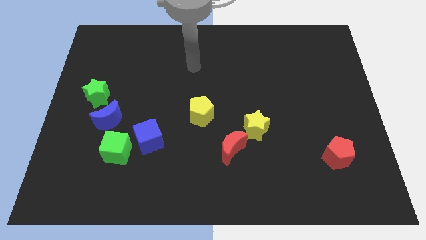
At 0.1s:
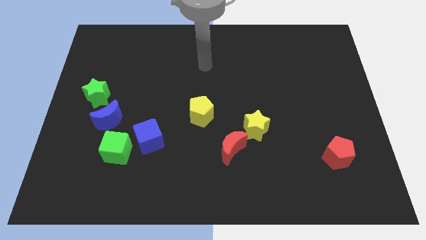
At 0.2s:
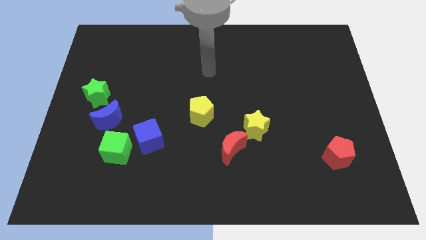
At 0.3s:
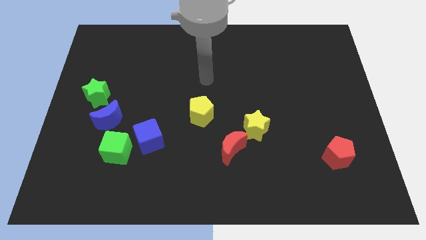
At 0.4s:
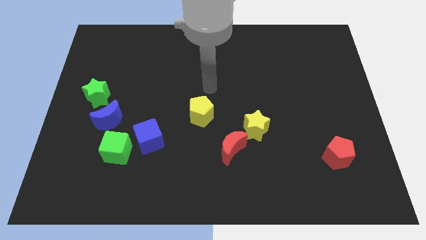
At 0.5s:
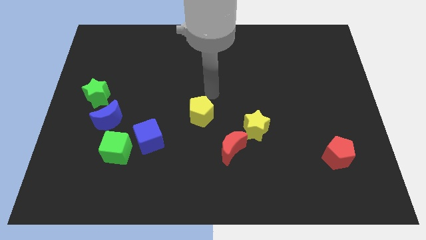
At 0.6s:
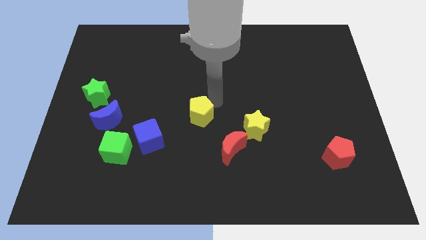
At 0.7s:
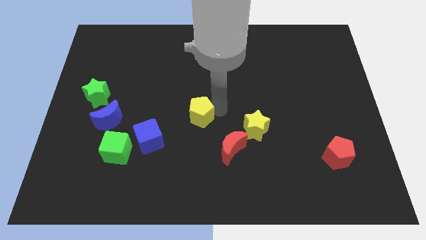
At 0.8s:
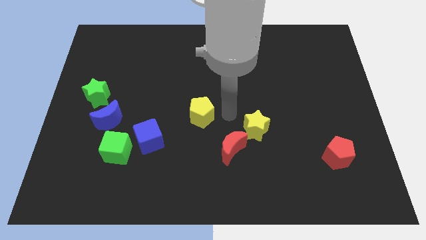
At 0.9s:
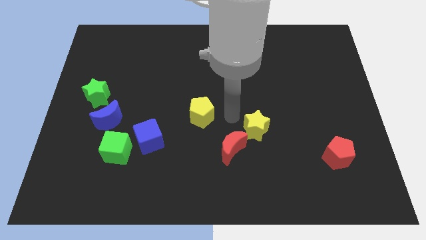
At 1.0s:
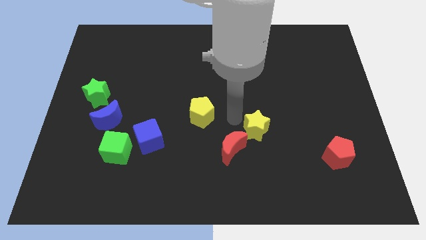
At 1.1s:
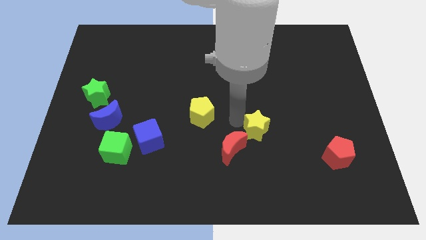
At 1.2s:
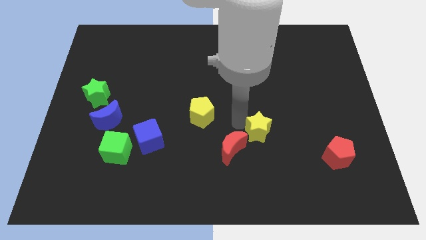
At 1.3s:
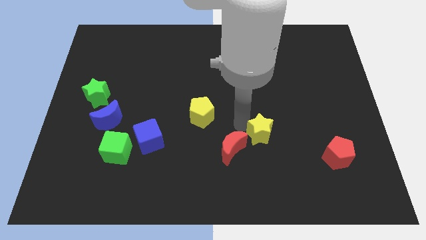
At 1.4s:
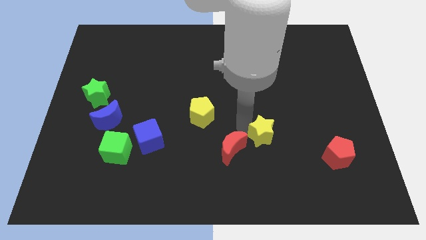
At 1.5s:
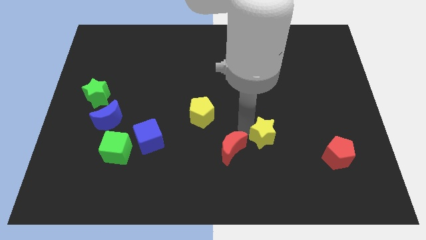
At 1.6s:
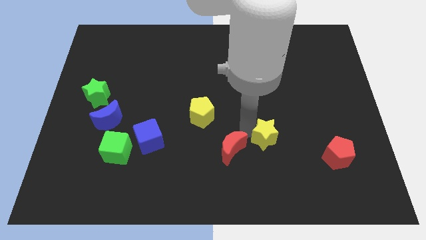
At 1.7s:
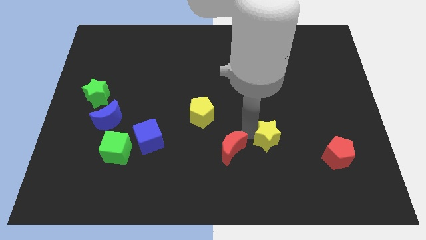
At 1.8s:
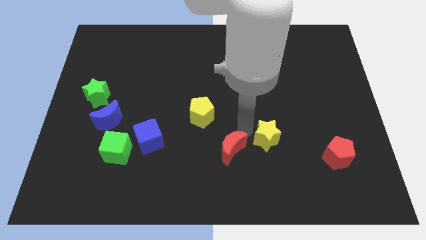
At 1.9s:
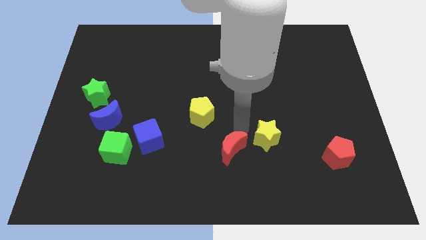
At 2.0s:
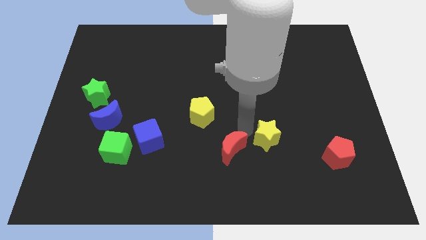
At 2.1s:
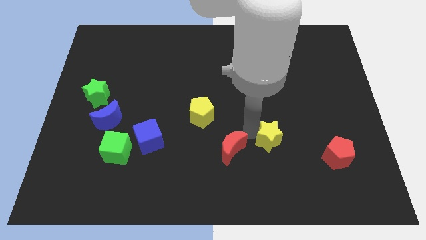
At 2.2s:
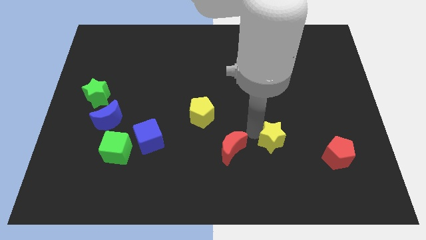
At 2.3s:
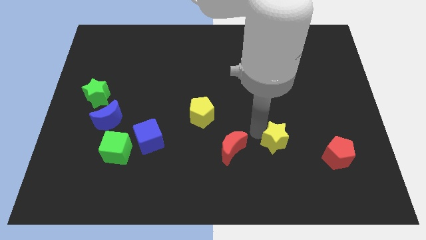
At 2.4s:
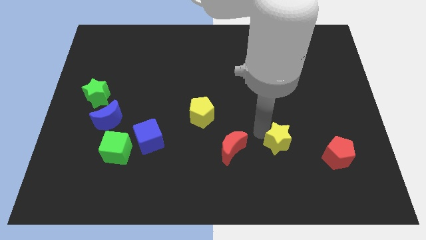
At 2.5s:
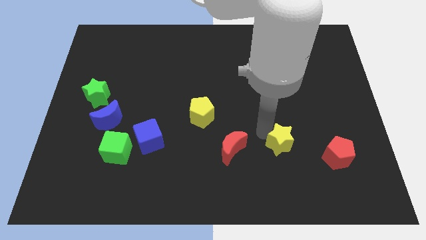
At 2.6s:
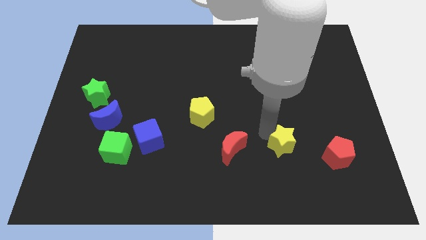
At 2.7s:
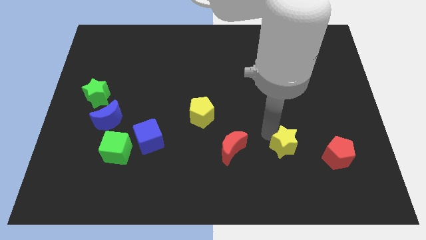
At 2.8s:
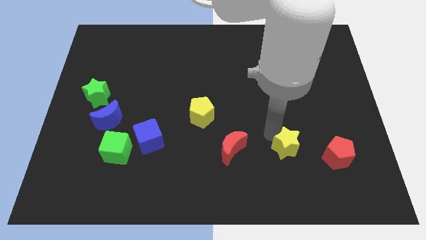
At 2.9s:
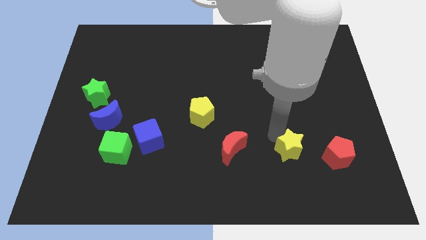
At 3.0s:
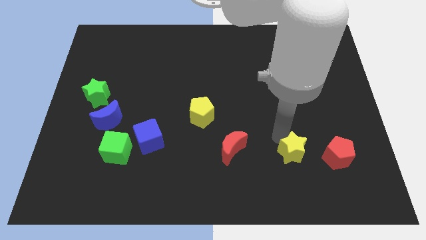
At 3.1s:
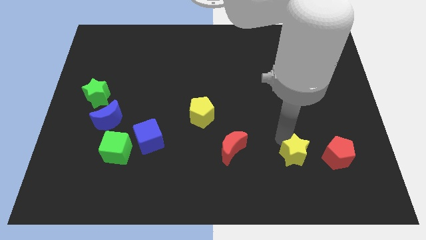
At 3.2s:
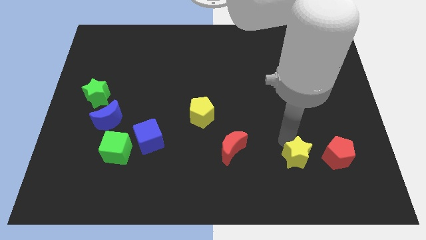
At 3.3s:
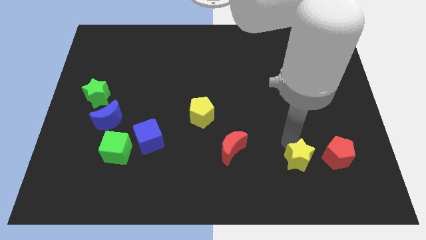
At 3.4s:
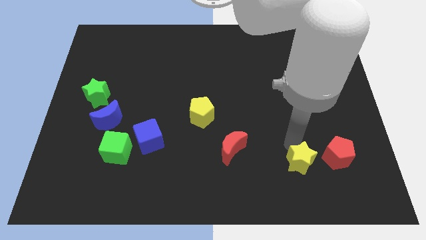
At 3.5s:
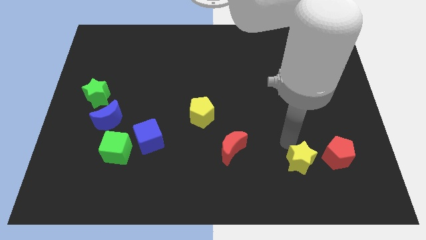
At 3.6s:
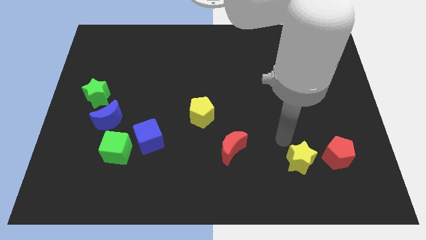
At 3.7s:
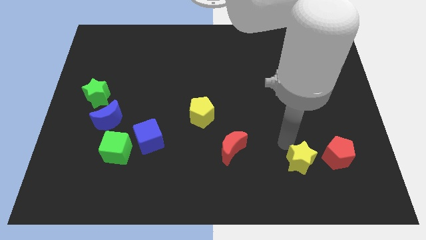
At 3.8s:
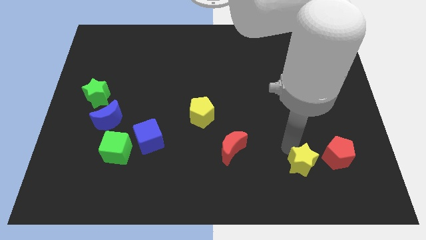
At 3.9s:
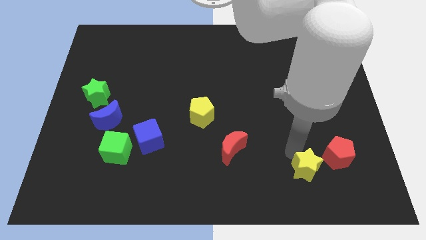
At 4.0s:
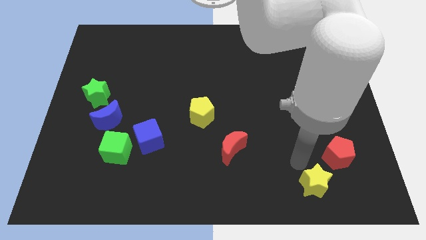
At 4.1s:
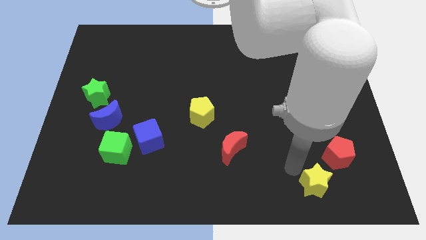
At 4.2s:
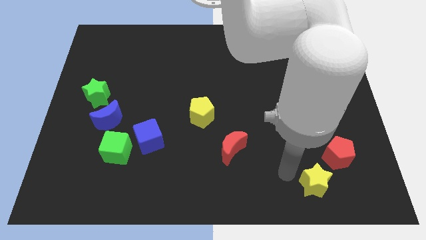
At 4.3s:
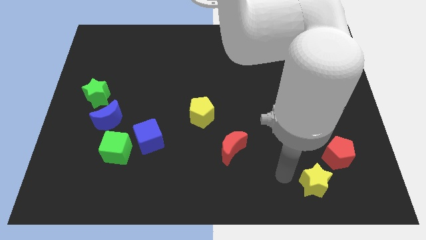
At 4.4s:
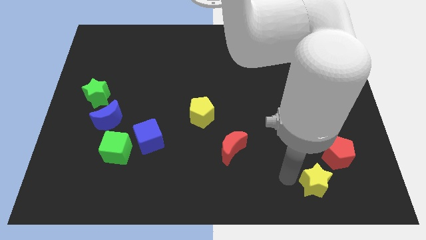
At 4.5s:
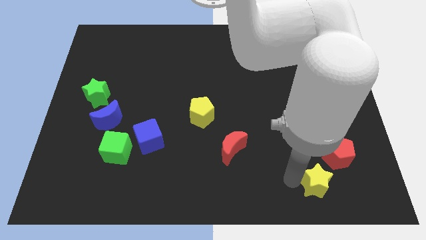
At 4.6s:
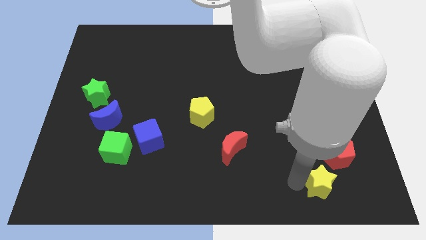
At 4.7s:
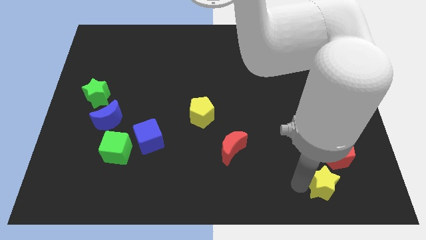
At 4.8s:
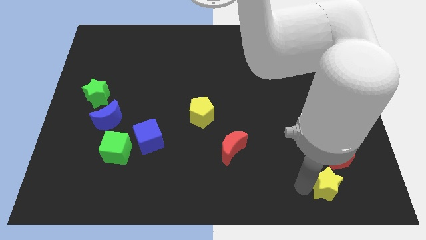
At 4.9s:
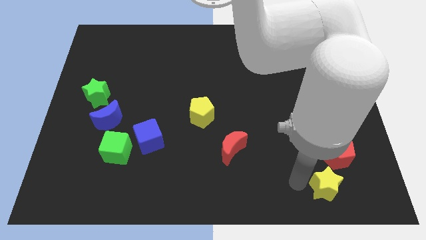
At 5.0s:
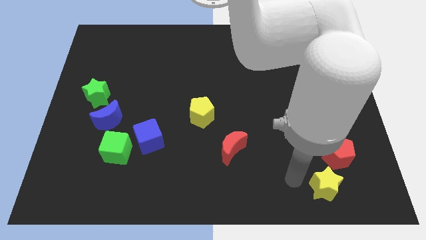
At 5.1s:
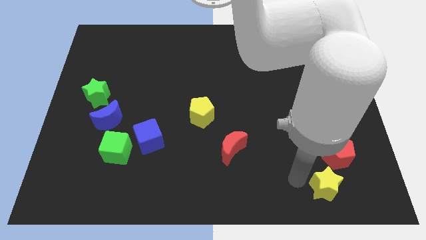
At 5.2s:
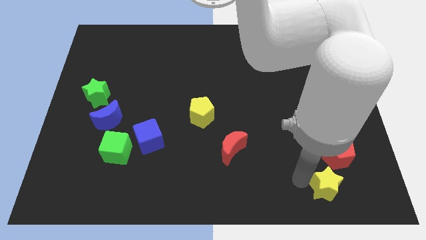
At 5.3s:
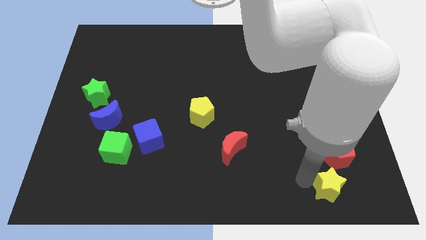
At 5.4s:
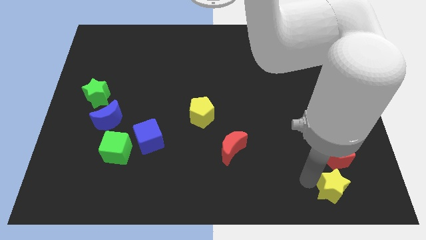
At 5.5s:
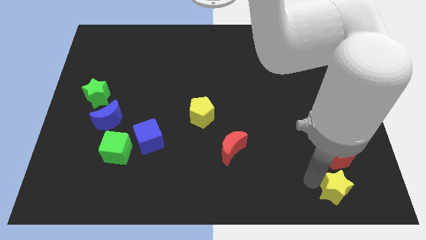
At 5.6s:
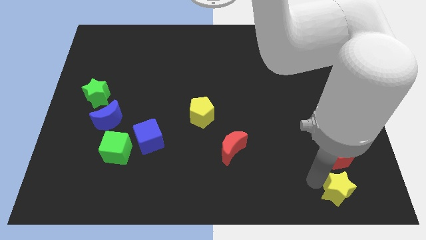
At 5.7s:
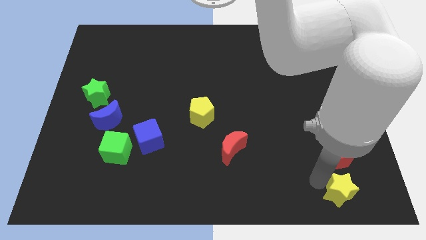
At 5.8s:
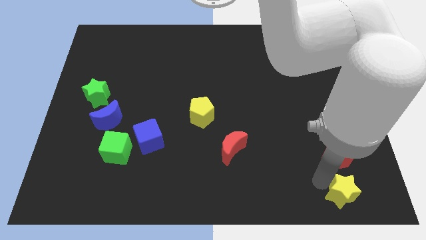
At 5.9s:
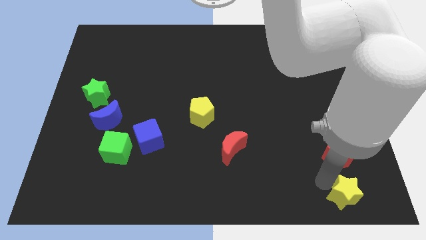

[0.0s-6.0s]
slide the yellow star to the bottom right of the board

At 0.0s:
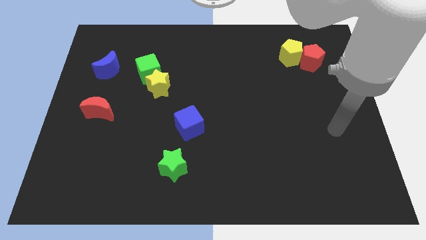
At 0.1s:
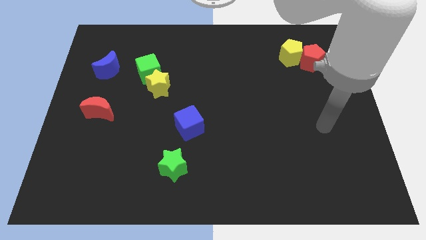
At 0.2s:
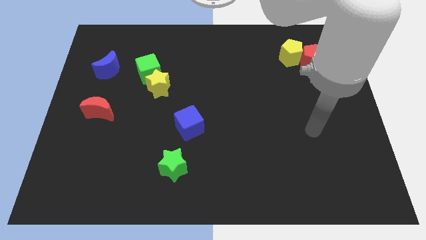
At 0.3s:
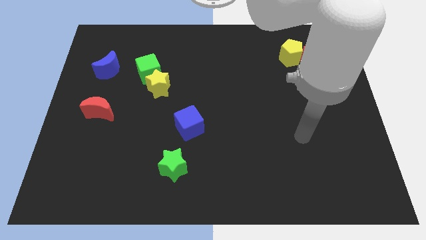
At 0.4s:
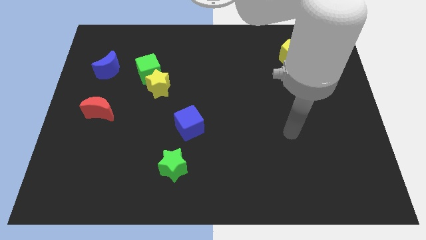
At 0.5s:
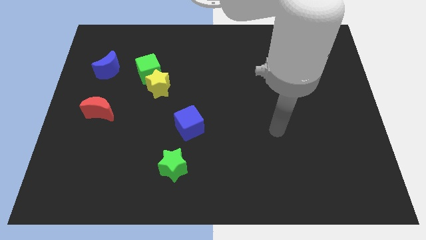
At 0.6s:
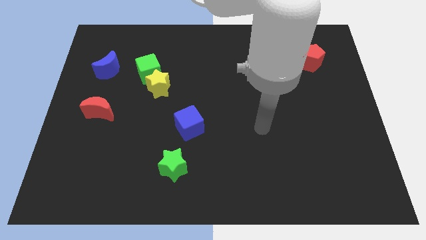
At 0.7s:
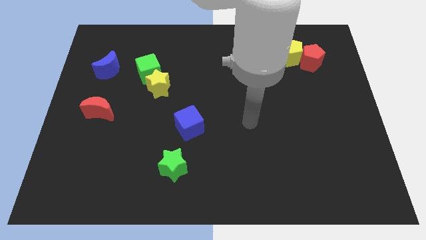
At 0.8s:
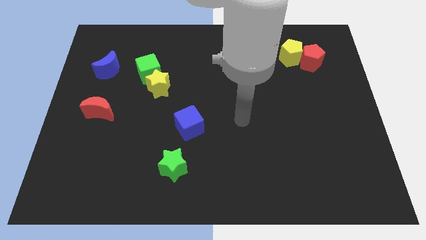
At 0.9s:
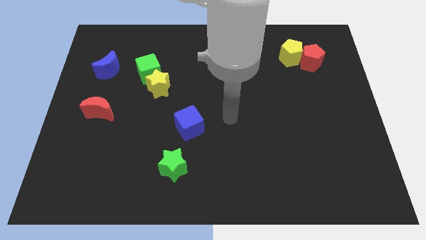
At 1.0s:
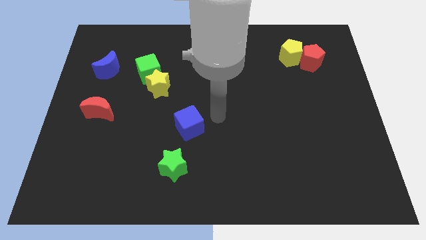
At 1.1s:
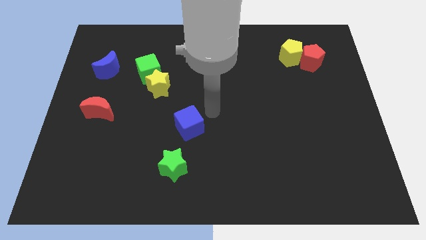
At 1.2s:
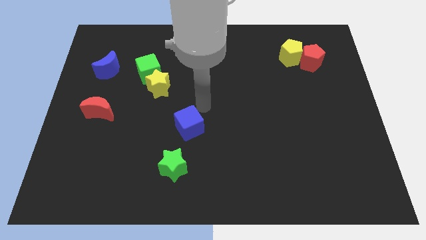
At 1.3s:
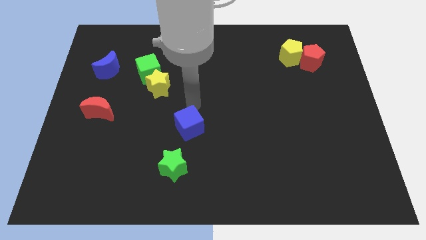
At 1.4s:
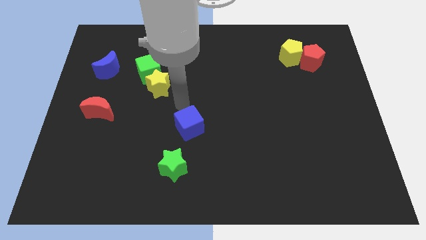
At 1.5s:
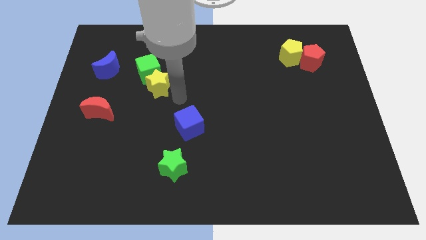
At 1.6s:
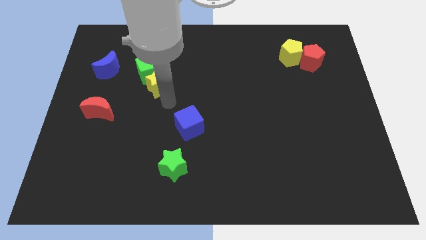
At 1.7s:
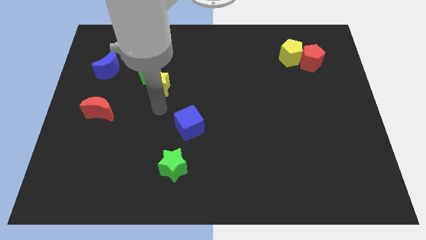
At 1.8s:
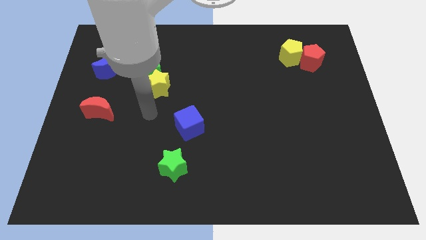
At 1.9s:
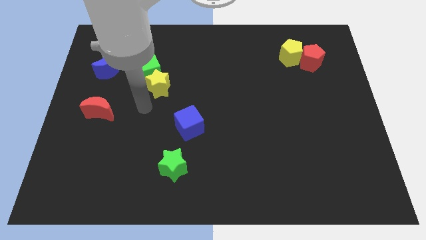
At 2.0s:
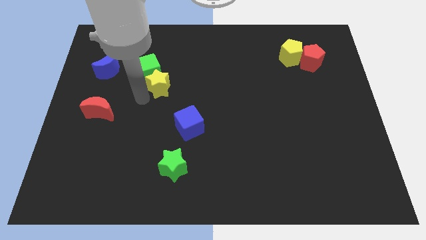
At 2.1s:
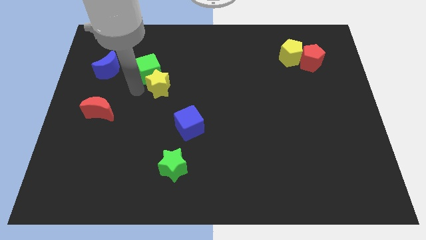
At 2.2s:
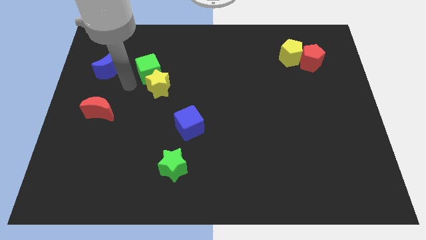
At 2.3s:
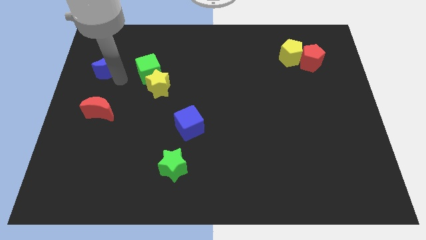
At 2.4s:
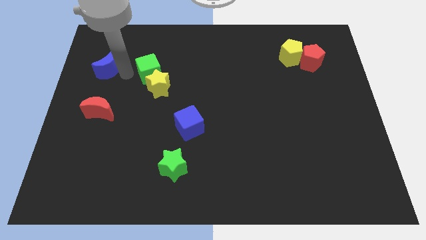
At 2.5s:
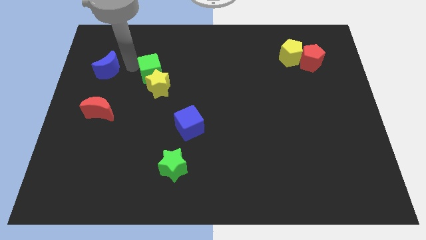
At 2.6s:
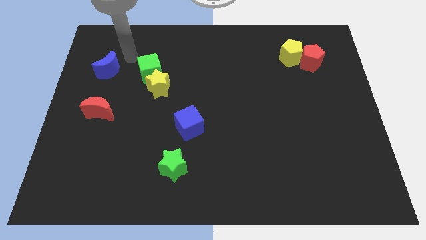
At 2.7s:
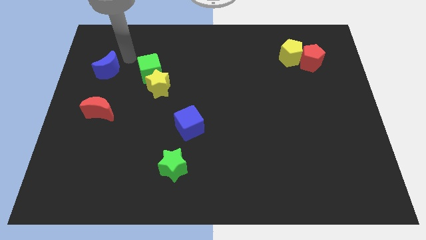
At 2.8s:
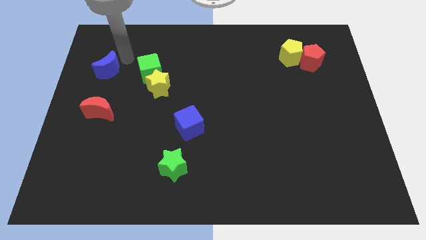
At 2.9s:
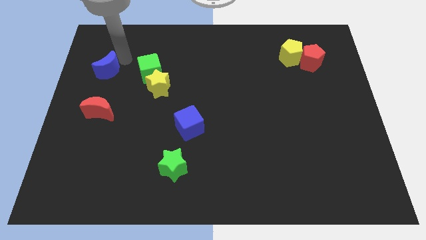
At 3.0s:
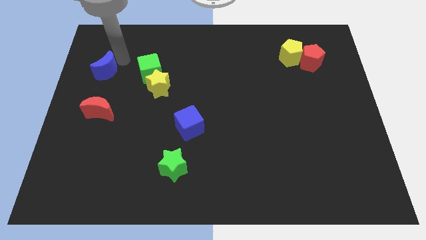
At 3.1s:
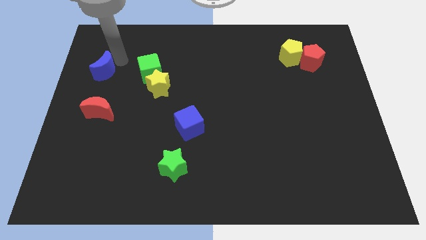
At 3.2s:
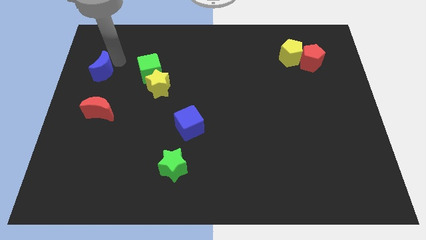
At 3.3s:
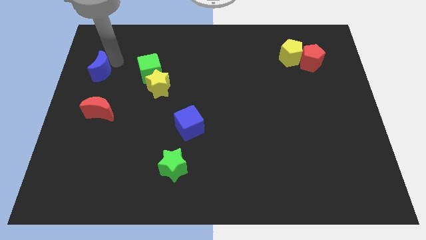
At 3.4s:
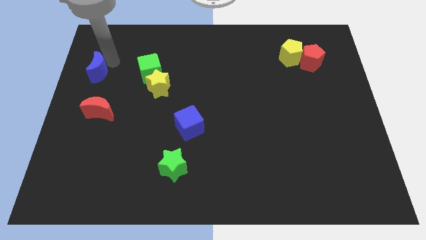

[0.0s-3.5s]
put the blue moon to the center left
